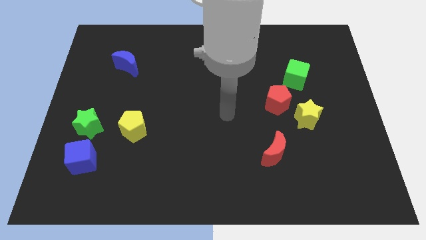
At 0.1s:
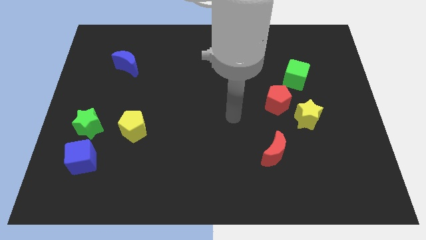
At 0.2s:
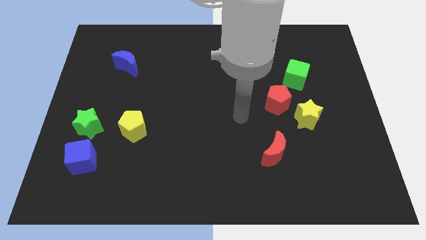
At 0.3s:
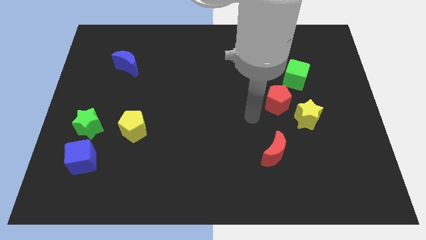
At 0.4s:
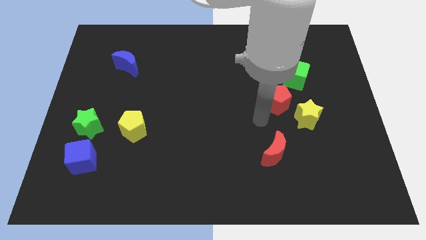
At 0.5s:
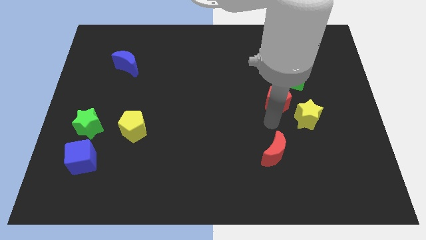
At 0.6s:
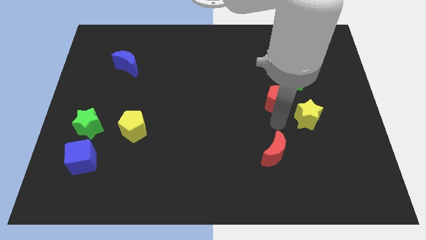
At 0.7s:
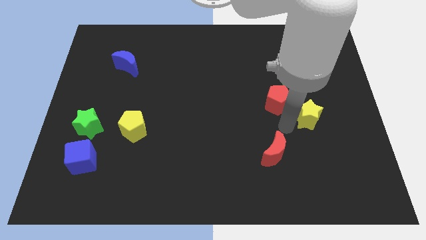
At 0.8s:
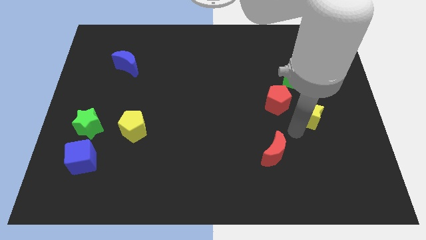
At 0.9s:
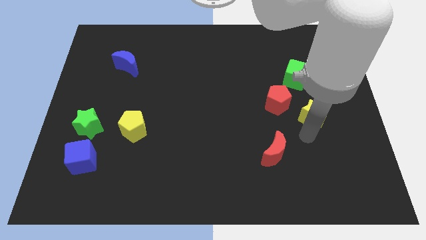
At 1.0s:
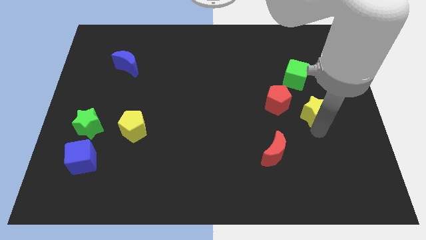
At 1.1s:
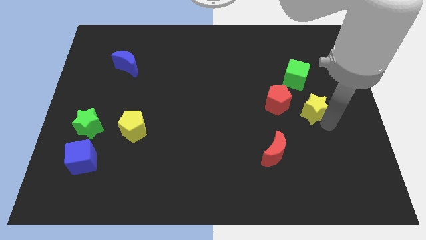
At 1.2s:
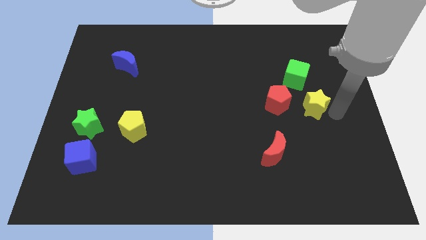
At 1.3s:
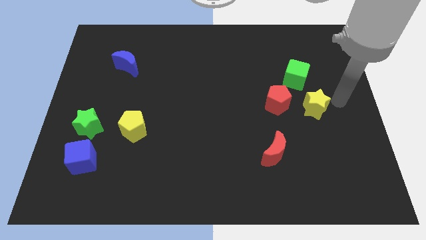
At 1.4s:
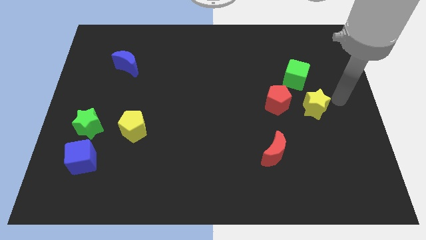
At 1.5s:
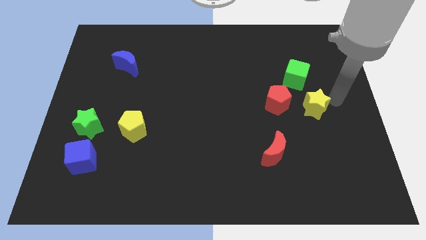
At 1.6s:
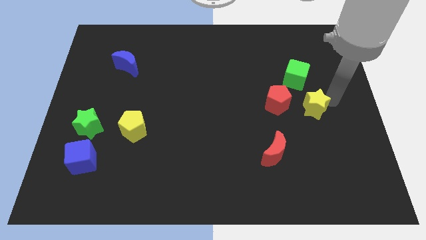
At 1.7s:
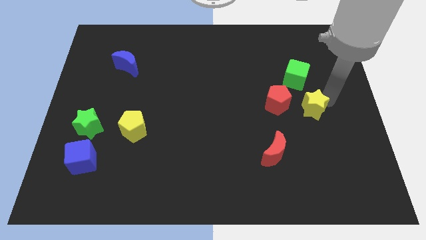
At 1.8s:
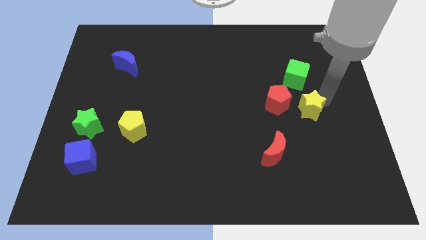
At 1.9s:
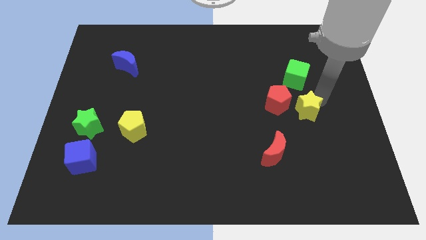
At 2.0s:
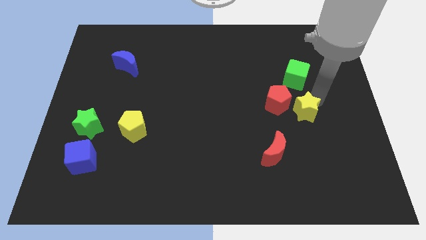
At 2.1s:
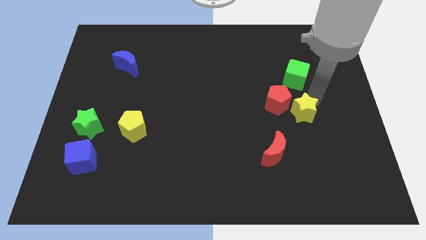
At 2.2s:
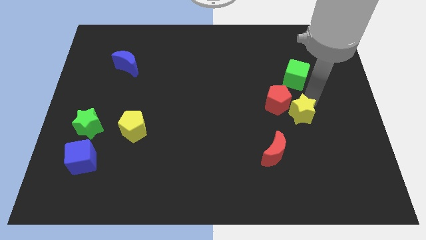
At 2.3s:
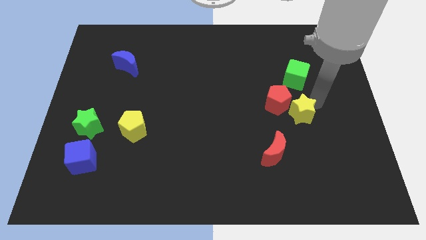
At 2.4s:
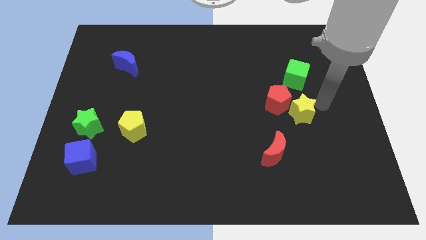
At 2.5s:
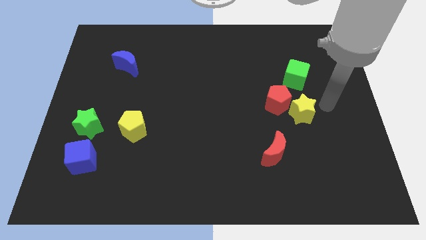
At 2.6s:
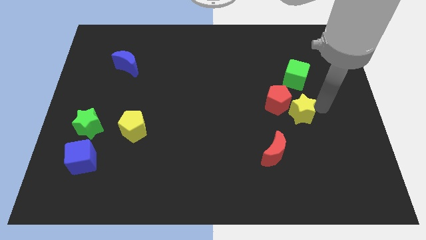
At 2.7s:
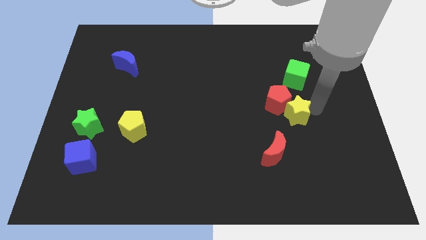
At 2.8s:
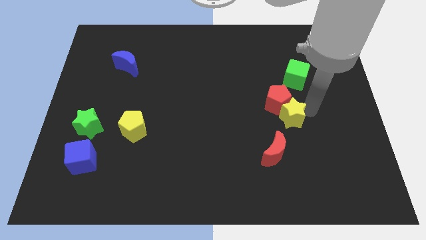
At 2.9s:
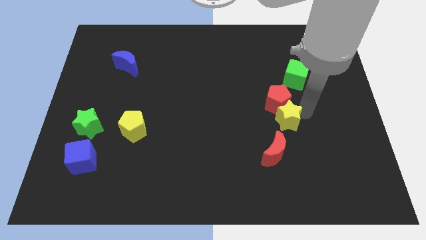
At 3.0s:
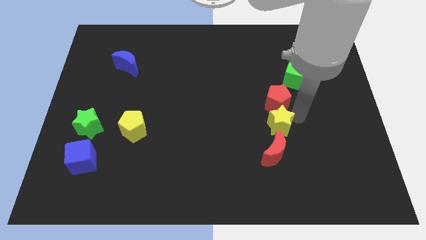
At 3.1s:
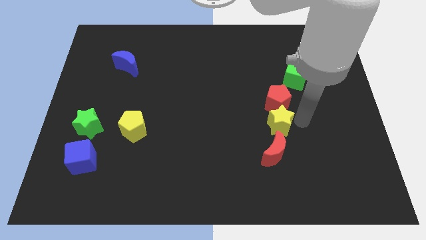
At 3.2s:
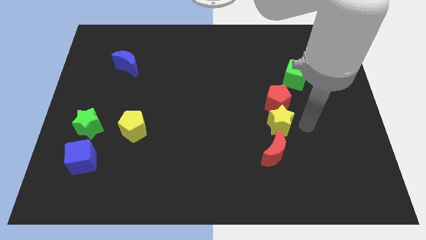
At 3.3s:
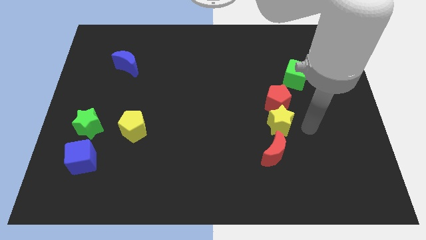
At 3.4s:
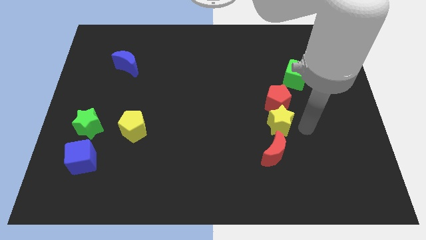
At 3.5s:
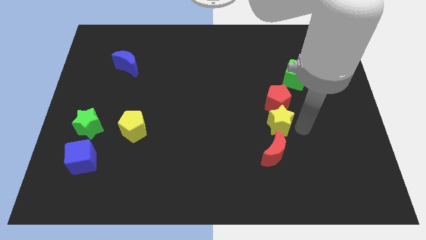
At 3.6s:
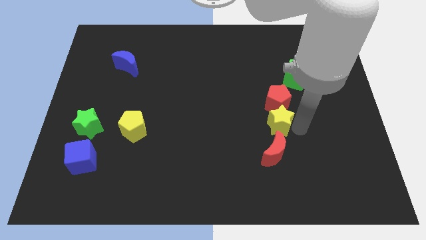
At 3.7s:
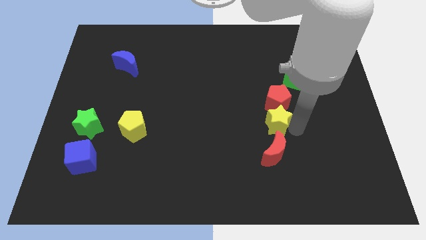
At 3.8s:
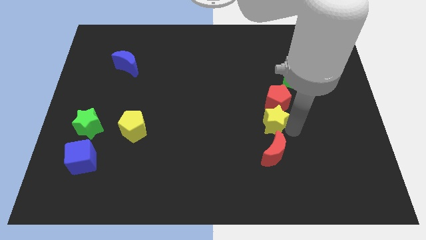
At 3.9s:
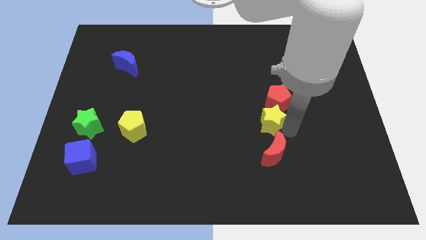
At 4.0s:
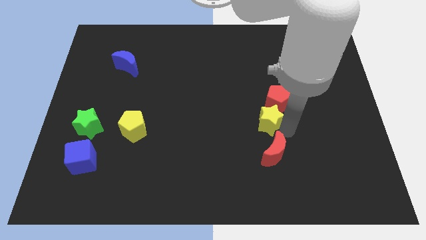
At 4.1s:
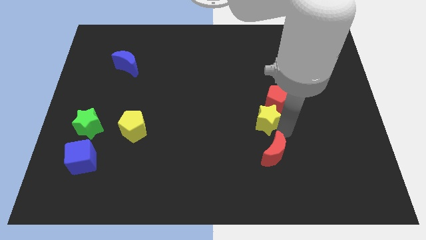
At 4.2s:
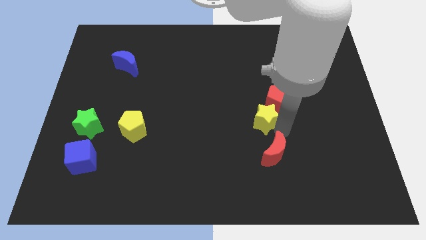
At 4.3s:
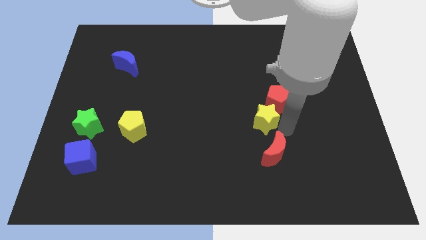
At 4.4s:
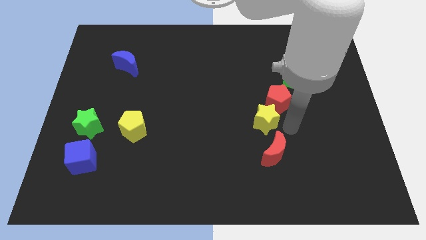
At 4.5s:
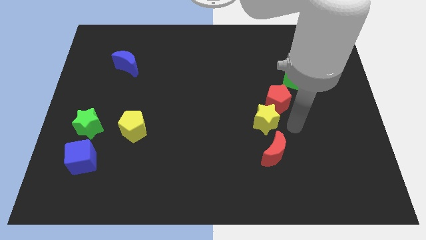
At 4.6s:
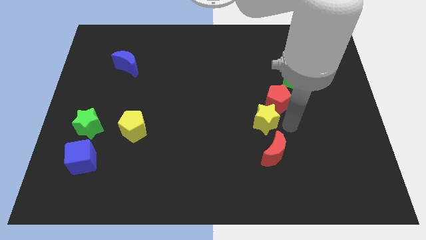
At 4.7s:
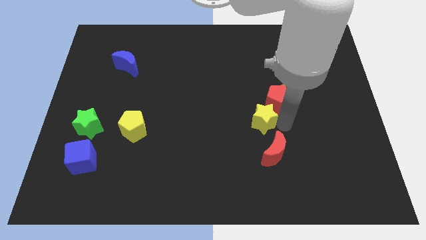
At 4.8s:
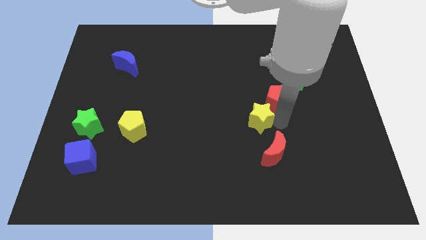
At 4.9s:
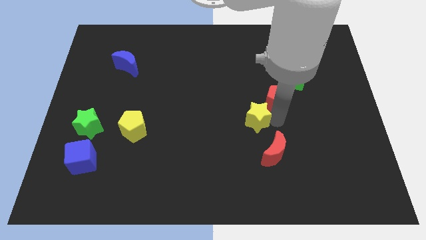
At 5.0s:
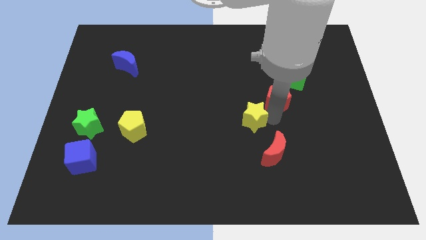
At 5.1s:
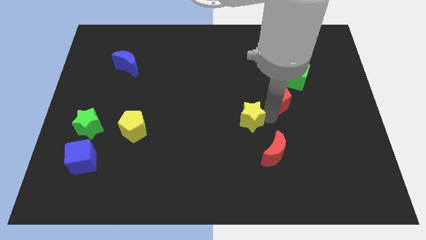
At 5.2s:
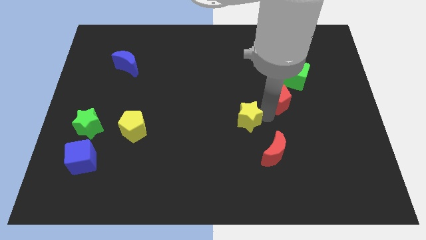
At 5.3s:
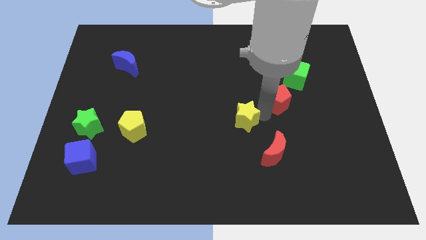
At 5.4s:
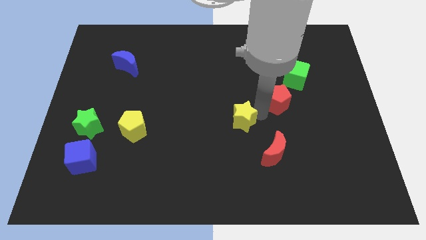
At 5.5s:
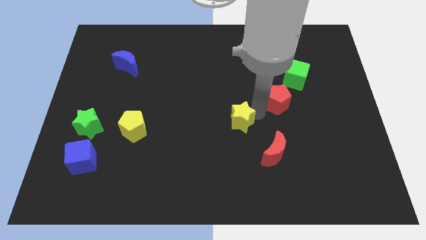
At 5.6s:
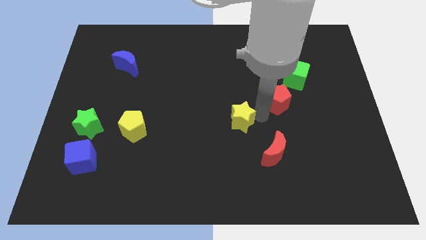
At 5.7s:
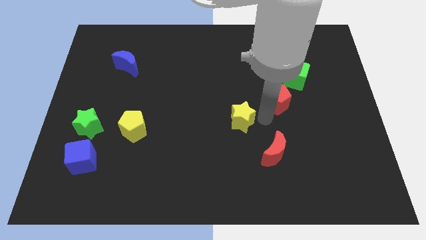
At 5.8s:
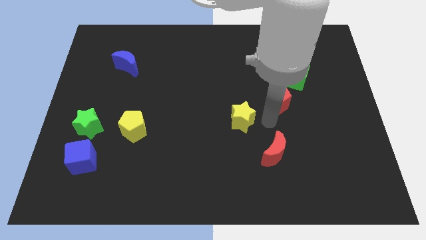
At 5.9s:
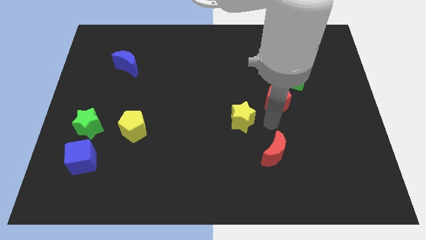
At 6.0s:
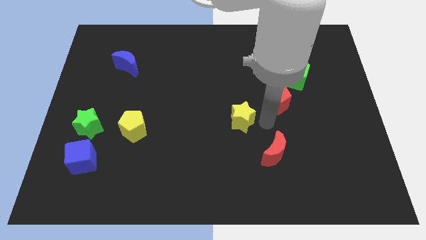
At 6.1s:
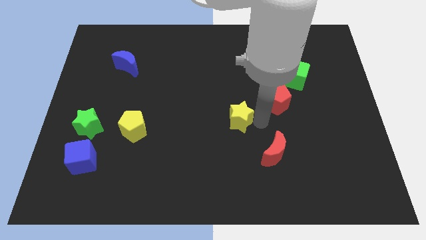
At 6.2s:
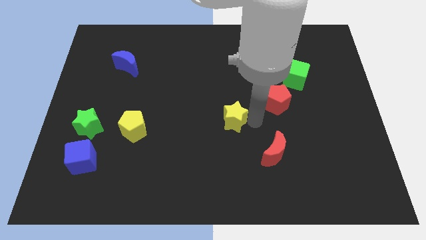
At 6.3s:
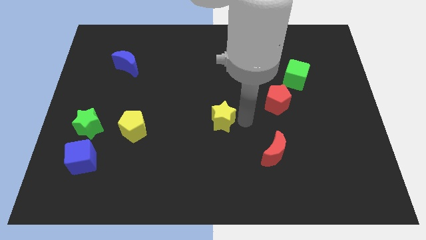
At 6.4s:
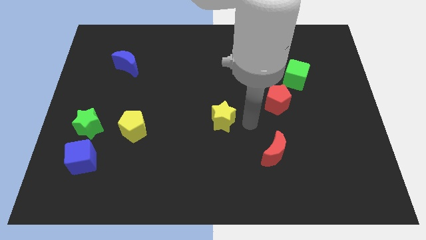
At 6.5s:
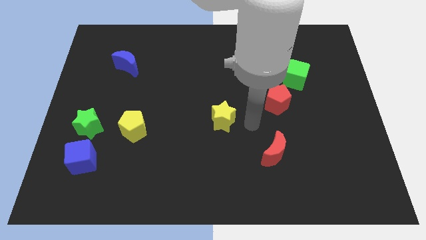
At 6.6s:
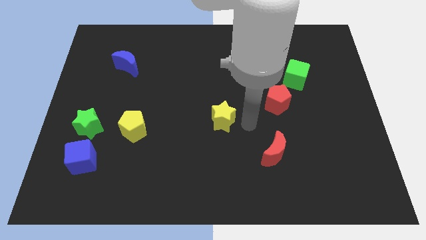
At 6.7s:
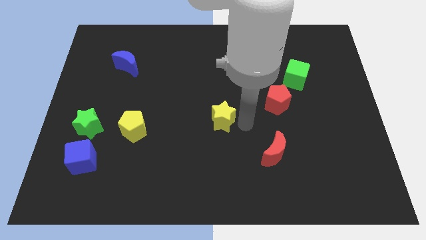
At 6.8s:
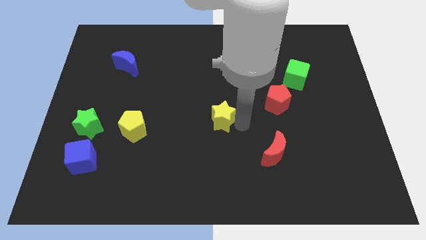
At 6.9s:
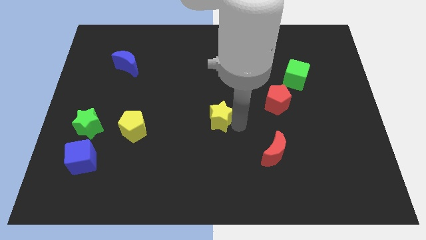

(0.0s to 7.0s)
move the yellow star left

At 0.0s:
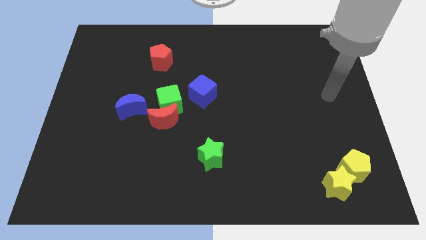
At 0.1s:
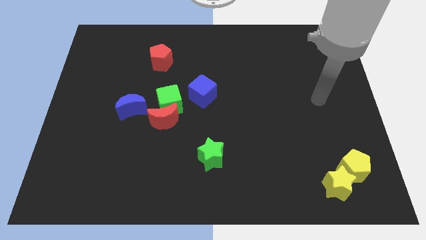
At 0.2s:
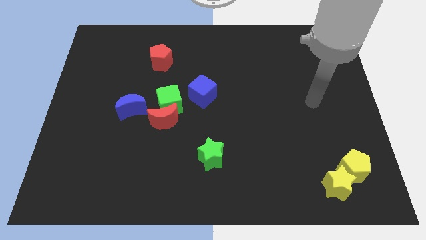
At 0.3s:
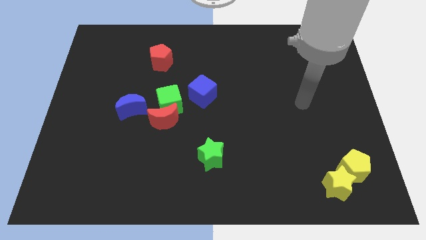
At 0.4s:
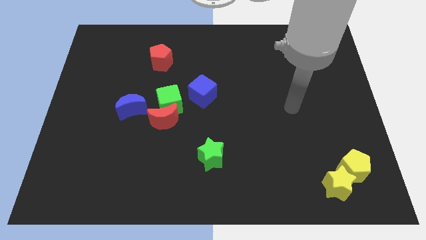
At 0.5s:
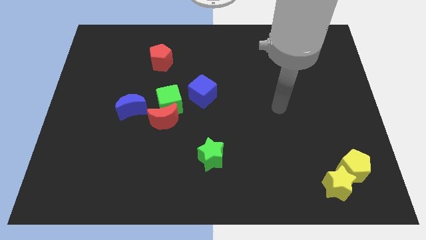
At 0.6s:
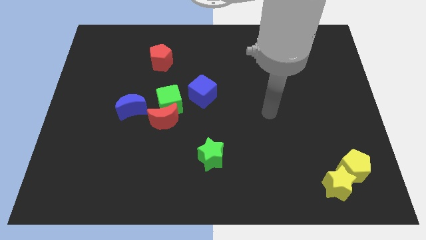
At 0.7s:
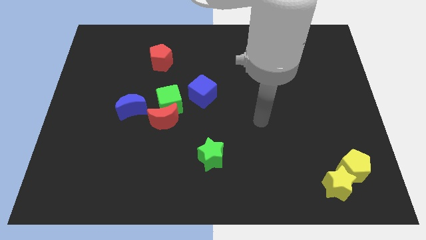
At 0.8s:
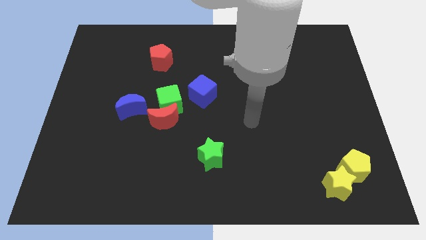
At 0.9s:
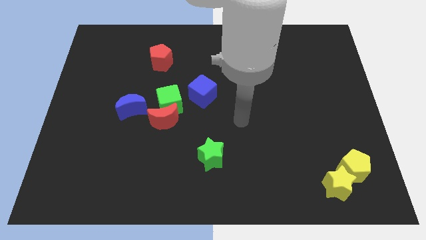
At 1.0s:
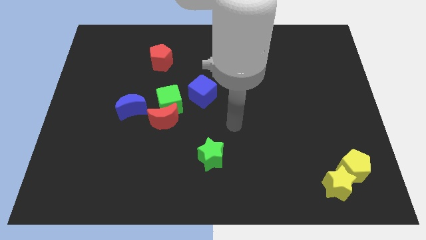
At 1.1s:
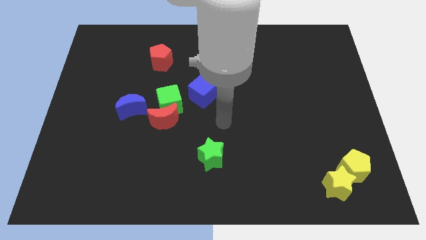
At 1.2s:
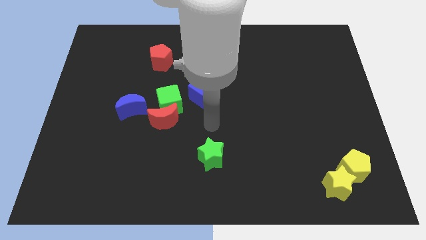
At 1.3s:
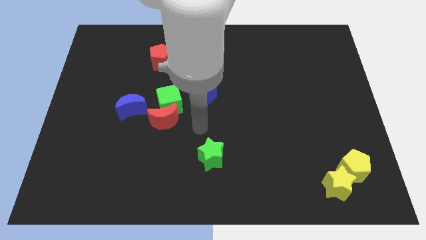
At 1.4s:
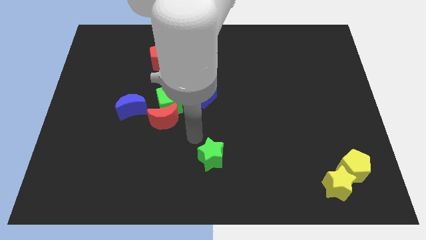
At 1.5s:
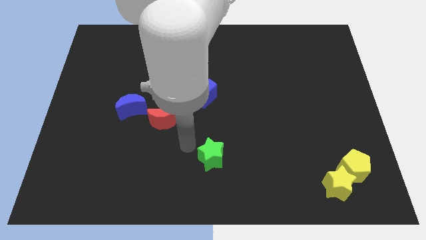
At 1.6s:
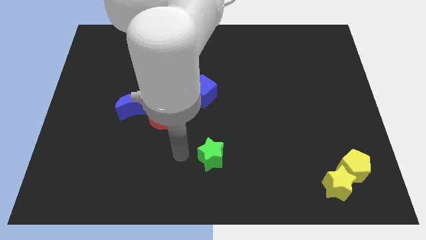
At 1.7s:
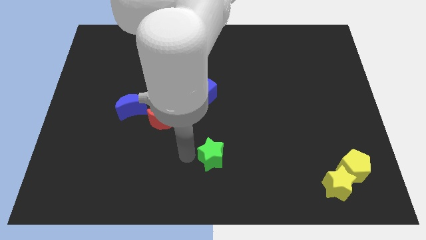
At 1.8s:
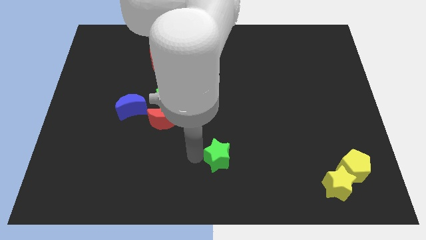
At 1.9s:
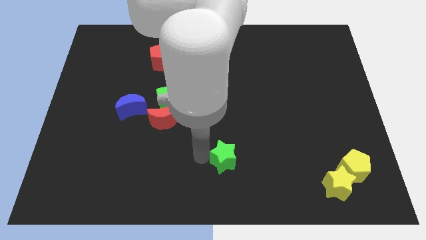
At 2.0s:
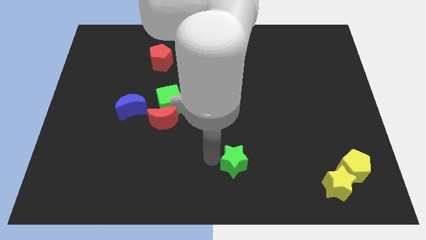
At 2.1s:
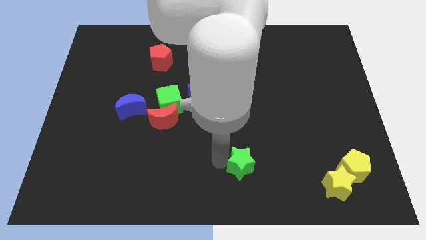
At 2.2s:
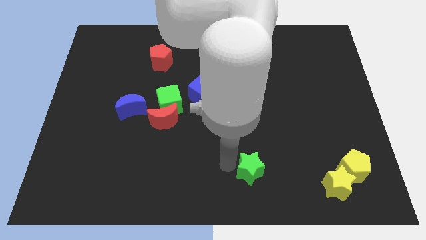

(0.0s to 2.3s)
slide the green star a bit right
